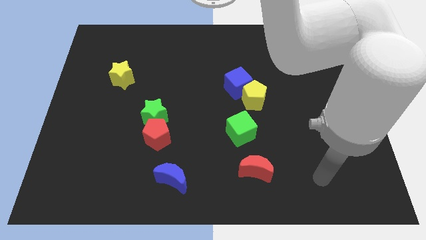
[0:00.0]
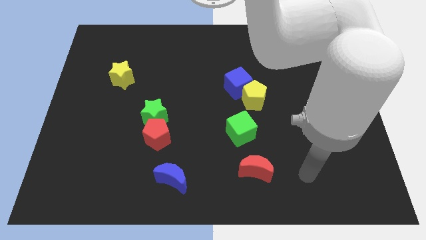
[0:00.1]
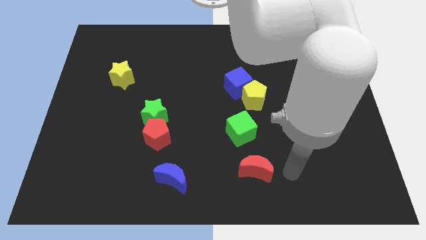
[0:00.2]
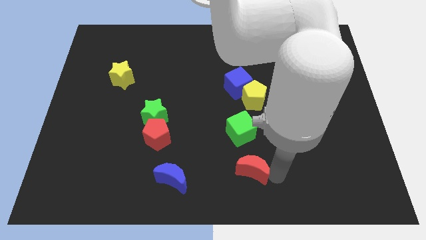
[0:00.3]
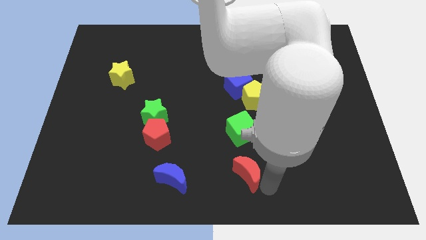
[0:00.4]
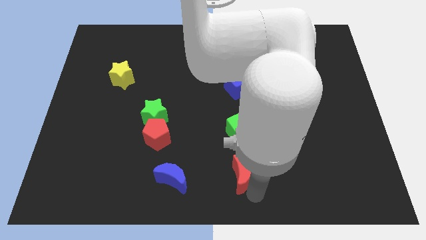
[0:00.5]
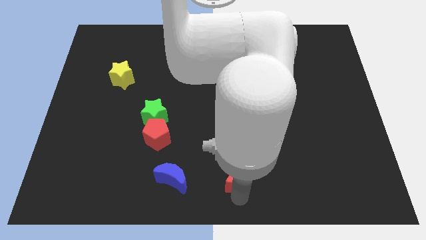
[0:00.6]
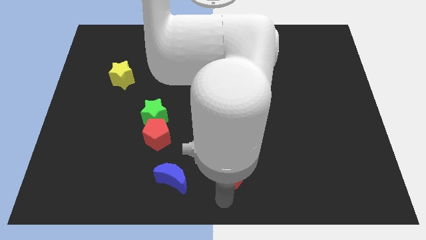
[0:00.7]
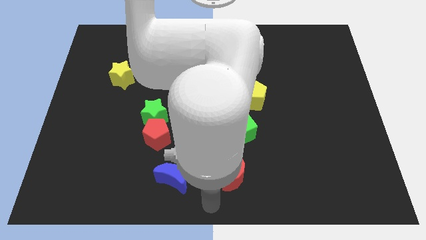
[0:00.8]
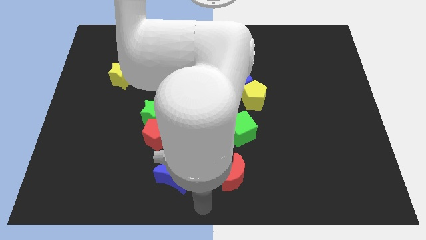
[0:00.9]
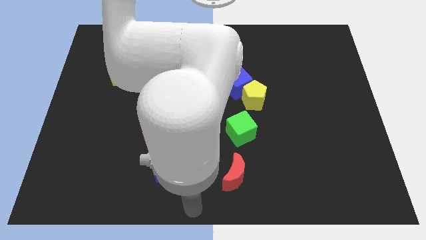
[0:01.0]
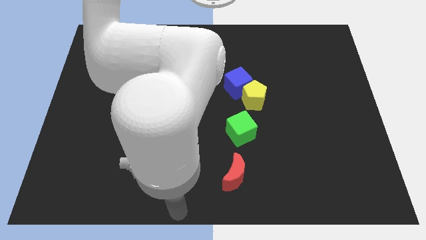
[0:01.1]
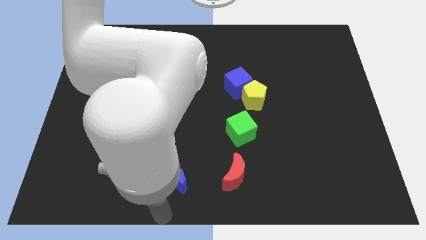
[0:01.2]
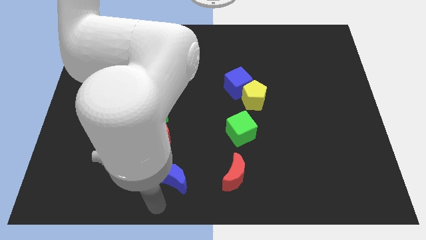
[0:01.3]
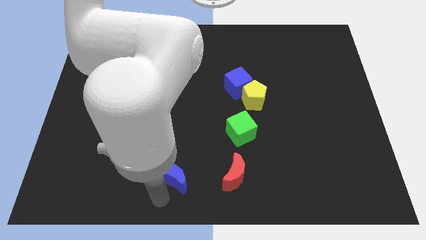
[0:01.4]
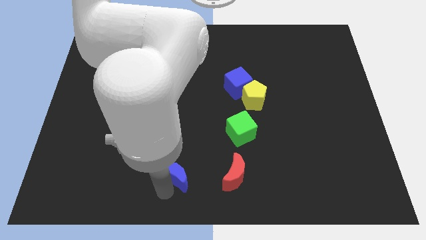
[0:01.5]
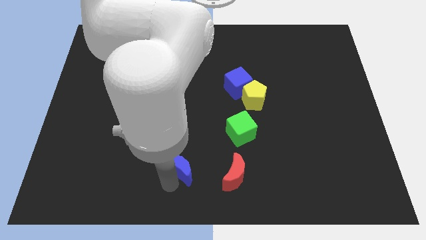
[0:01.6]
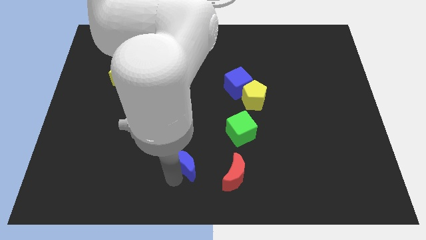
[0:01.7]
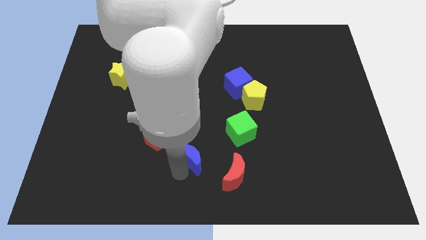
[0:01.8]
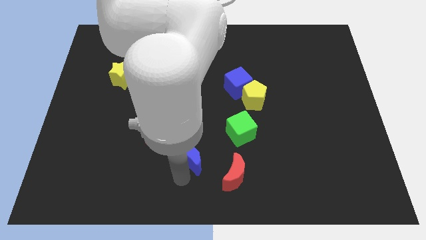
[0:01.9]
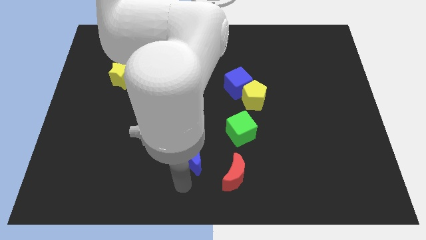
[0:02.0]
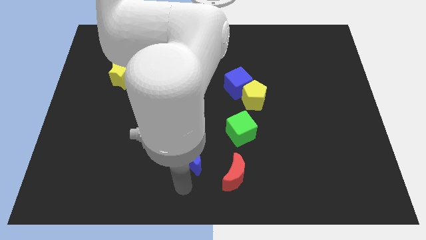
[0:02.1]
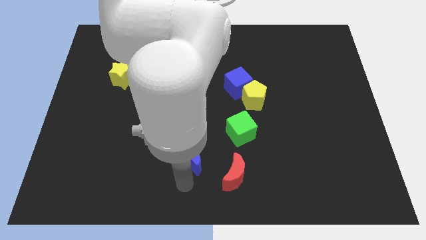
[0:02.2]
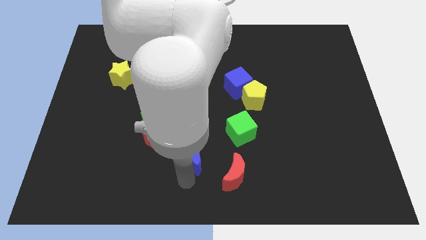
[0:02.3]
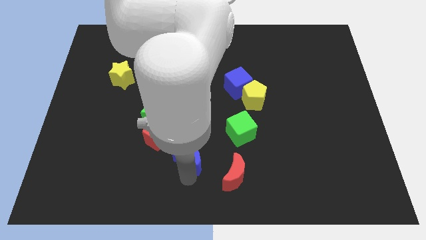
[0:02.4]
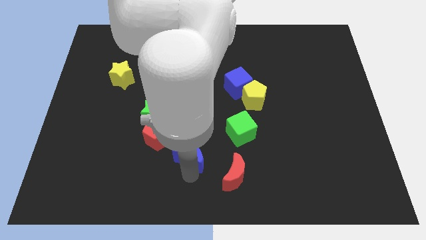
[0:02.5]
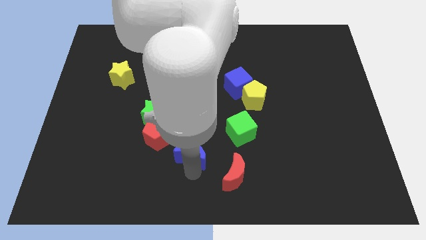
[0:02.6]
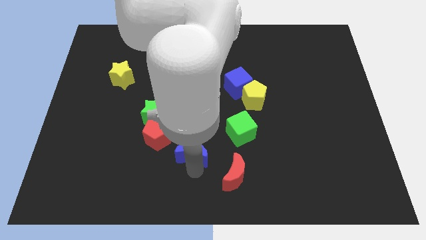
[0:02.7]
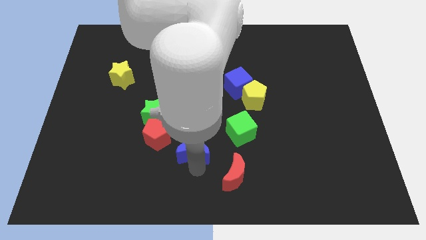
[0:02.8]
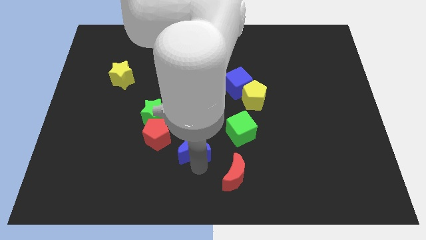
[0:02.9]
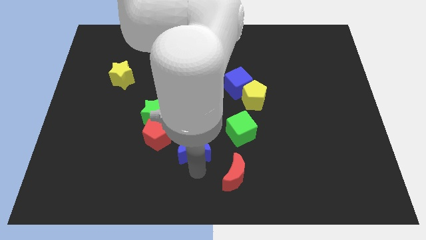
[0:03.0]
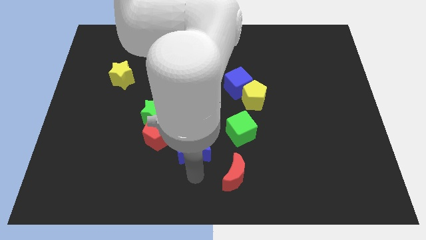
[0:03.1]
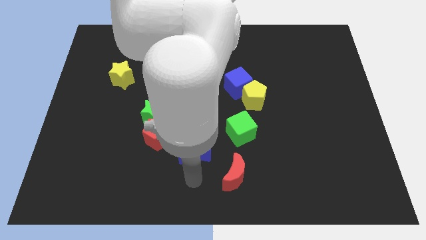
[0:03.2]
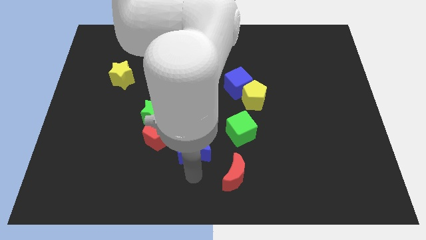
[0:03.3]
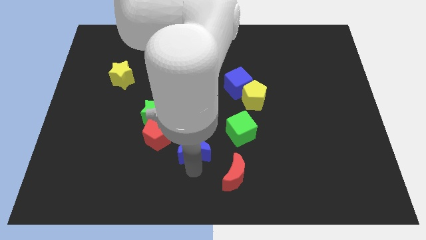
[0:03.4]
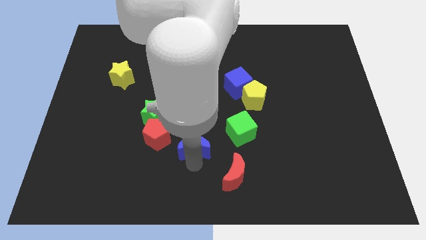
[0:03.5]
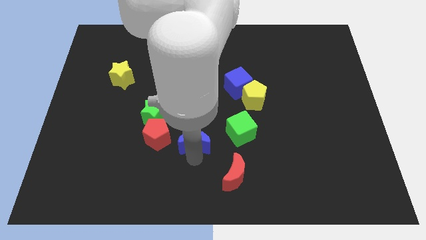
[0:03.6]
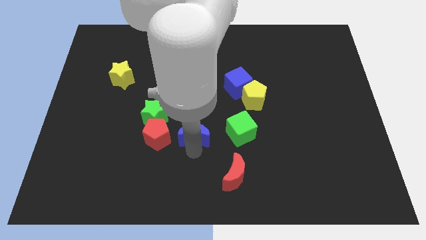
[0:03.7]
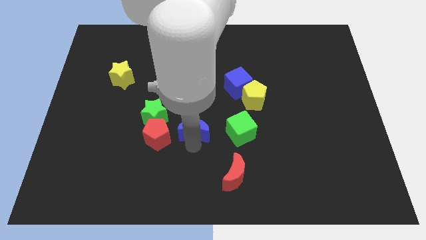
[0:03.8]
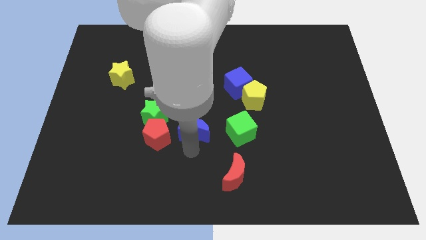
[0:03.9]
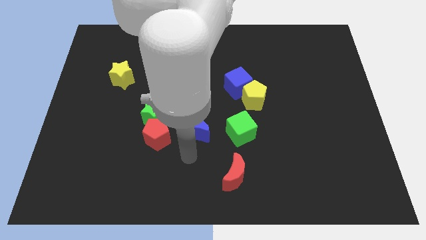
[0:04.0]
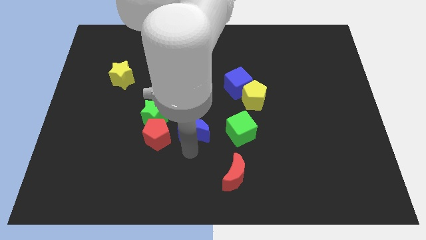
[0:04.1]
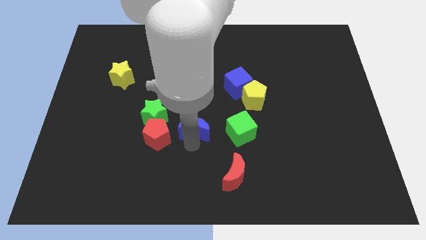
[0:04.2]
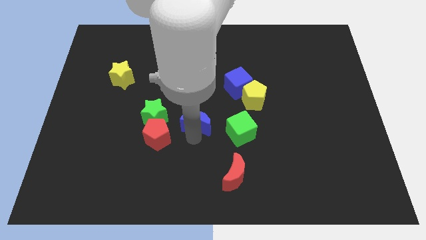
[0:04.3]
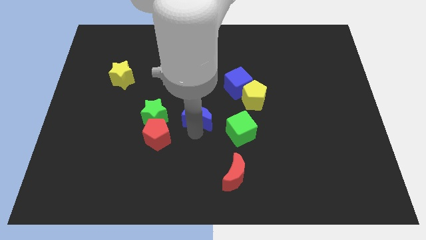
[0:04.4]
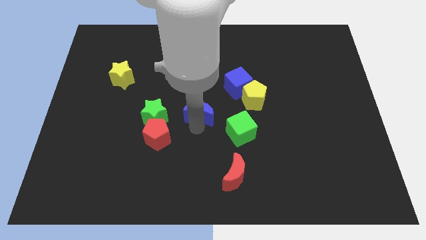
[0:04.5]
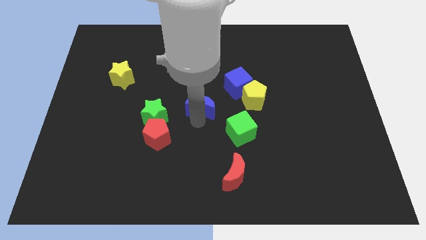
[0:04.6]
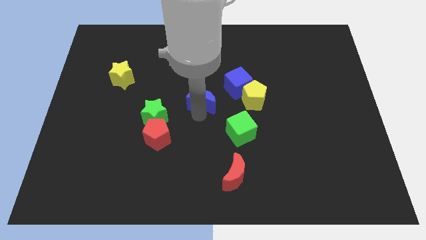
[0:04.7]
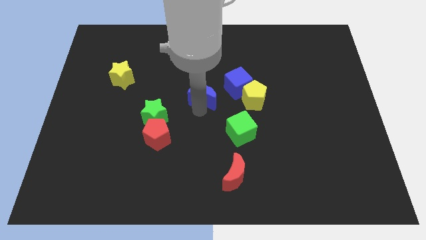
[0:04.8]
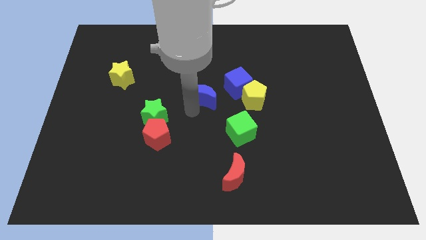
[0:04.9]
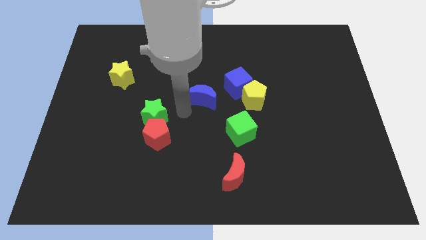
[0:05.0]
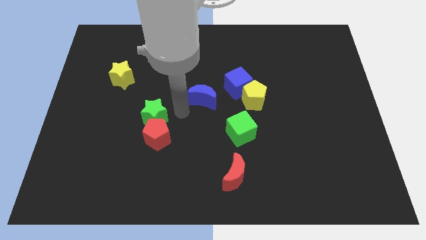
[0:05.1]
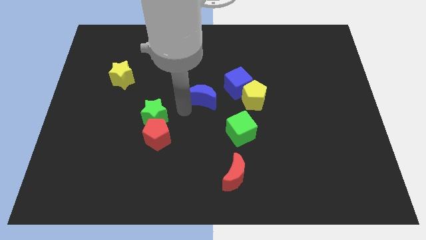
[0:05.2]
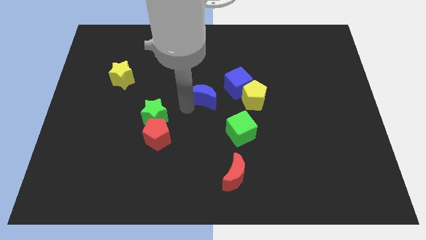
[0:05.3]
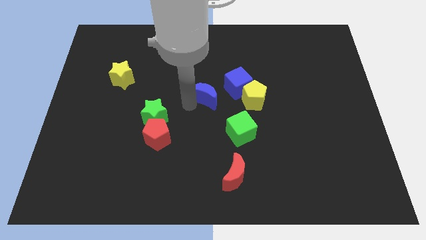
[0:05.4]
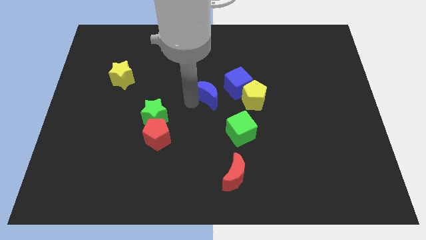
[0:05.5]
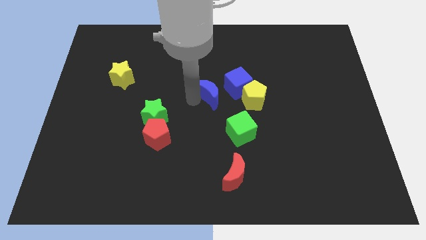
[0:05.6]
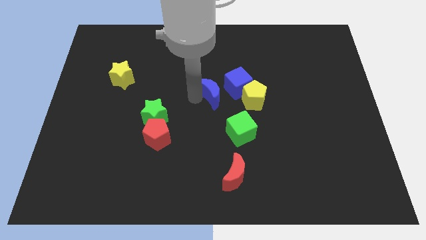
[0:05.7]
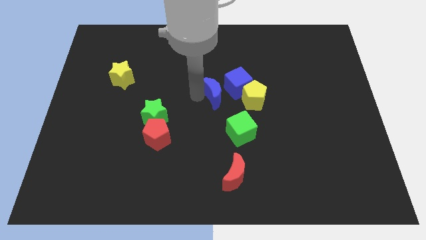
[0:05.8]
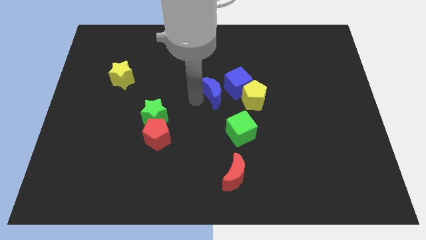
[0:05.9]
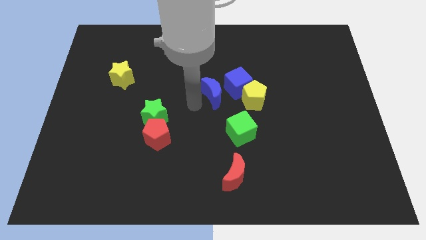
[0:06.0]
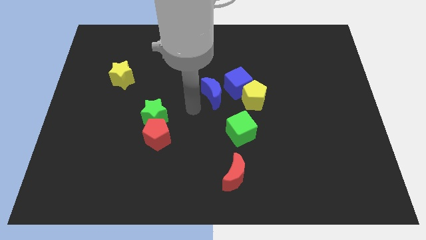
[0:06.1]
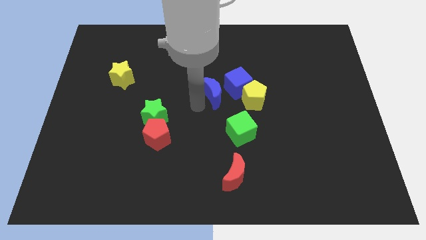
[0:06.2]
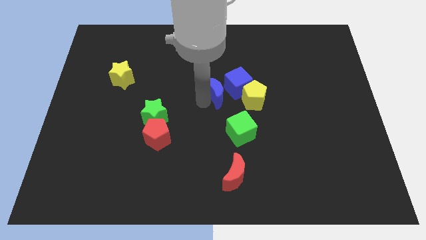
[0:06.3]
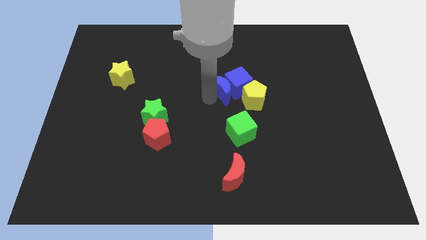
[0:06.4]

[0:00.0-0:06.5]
put the blue moon to the top left side of the yellow pentagon
